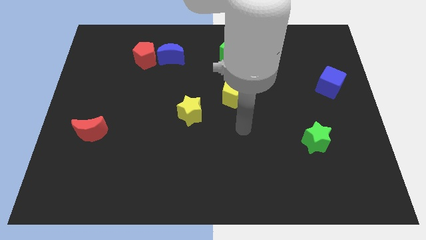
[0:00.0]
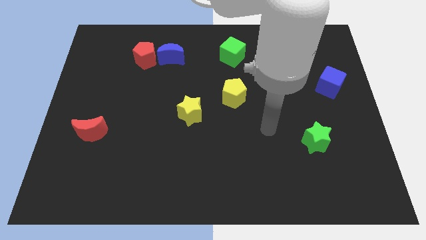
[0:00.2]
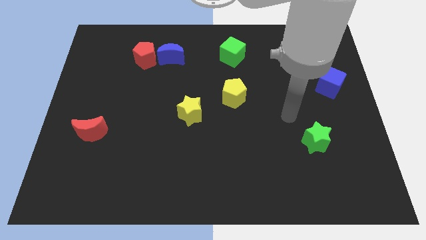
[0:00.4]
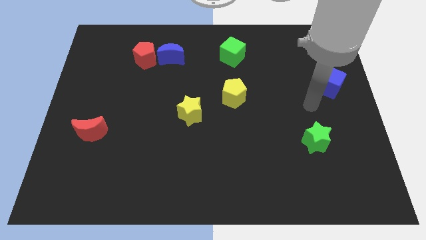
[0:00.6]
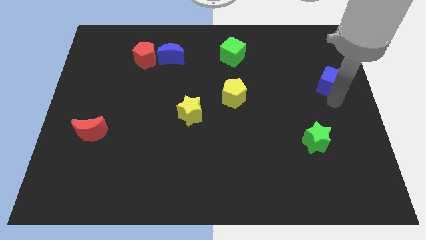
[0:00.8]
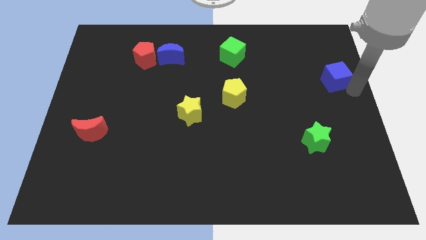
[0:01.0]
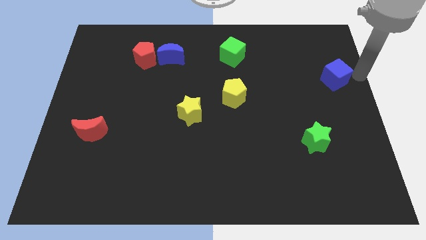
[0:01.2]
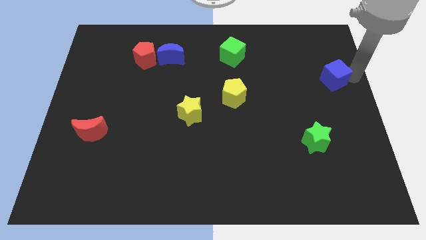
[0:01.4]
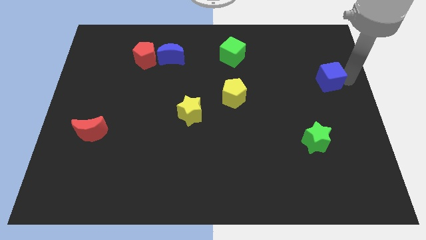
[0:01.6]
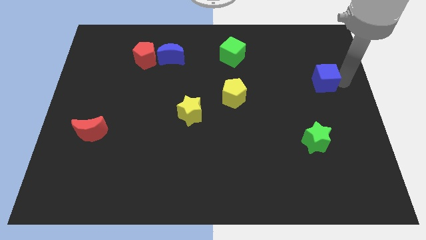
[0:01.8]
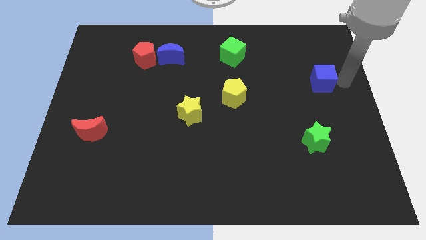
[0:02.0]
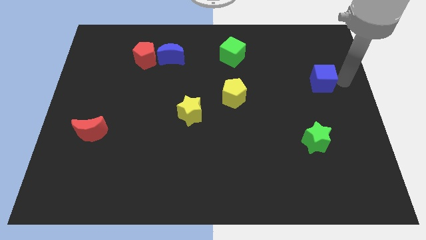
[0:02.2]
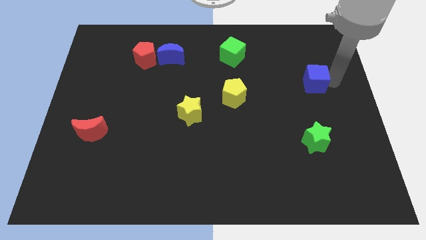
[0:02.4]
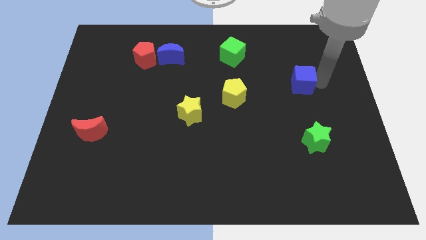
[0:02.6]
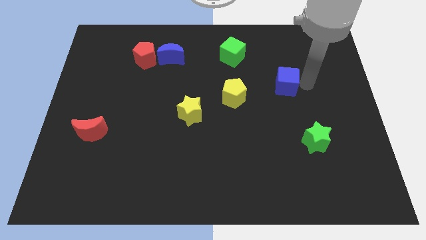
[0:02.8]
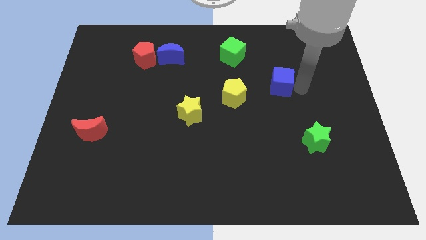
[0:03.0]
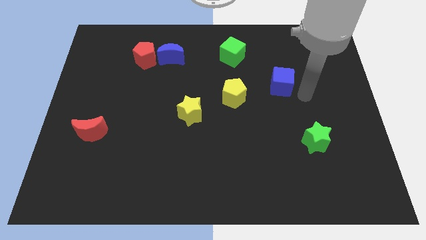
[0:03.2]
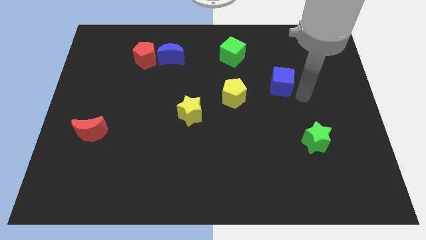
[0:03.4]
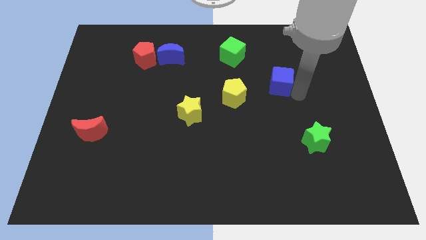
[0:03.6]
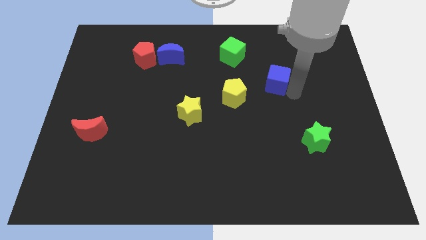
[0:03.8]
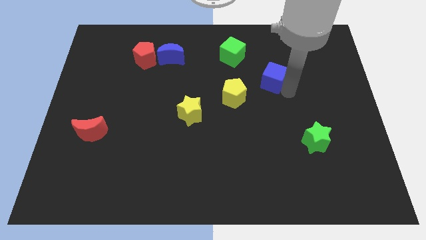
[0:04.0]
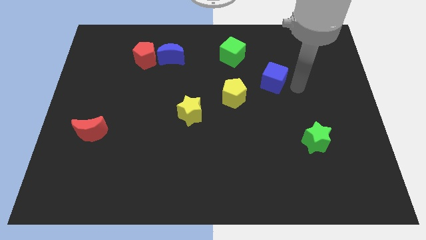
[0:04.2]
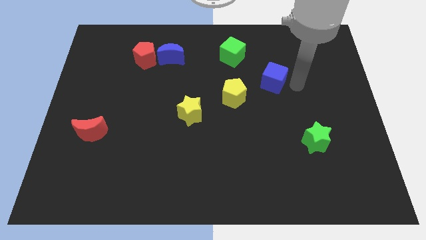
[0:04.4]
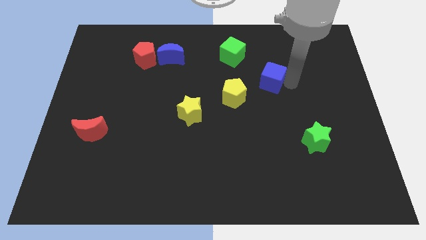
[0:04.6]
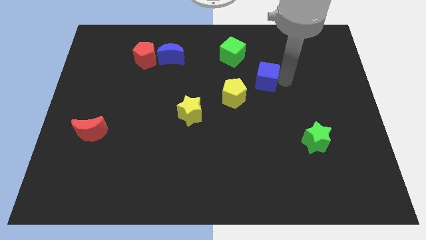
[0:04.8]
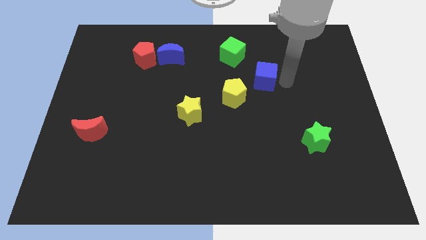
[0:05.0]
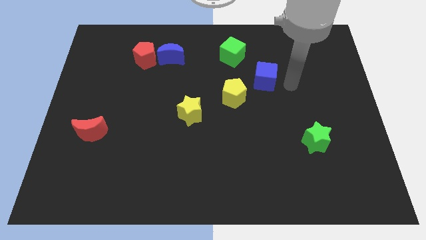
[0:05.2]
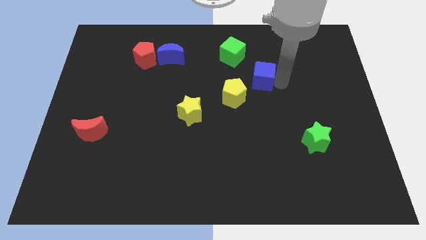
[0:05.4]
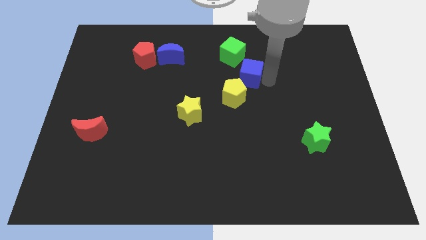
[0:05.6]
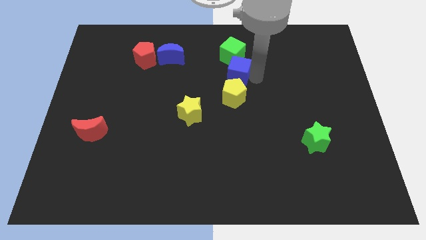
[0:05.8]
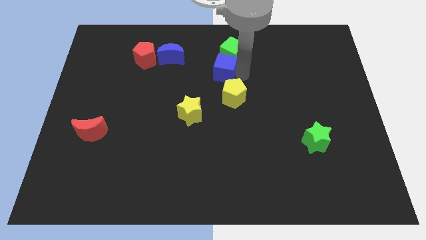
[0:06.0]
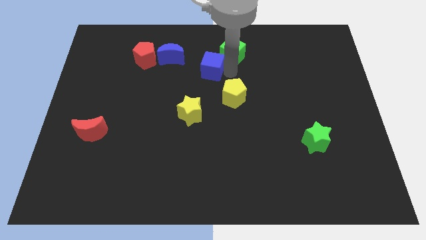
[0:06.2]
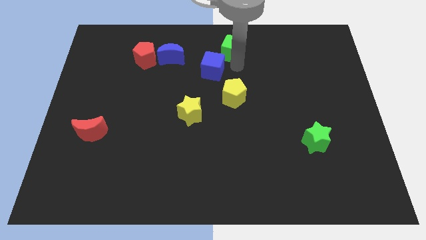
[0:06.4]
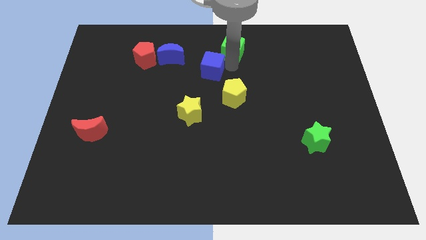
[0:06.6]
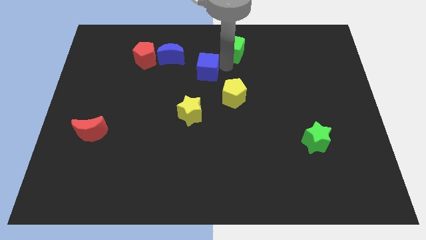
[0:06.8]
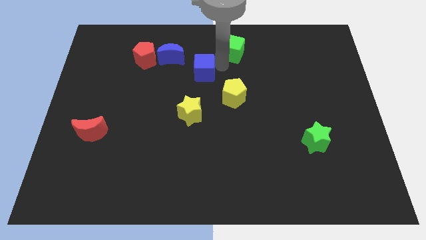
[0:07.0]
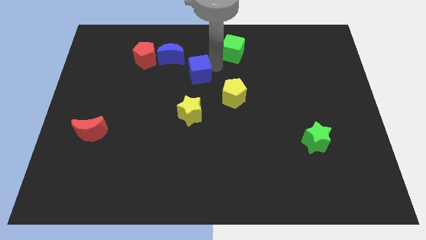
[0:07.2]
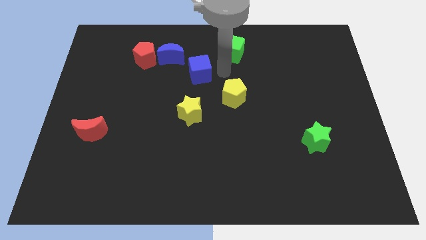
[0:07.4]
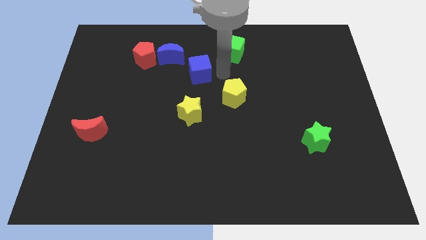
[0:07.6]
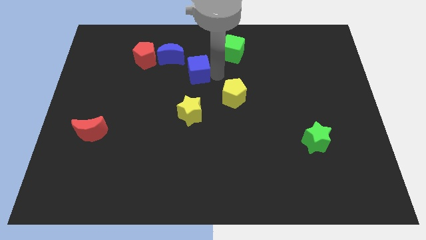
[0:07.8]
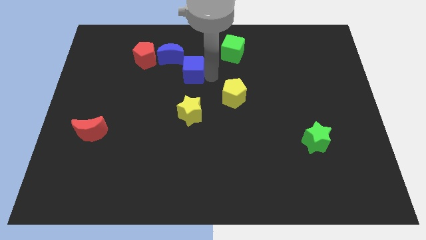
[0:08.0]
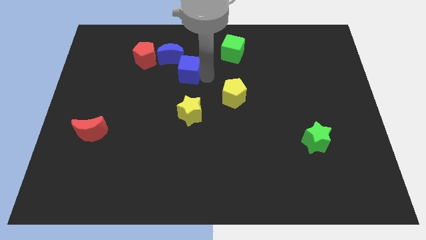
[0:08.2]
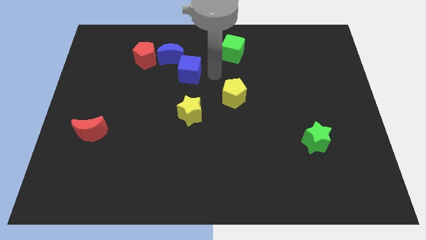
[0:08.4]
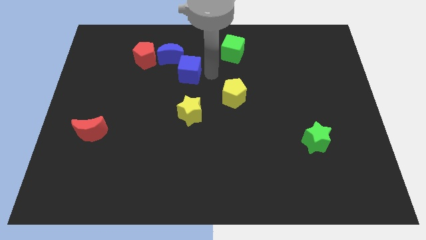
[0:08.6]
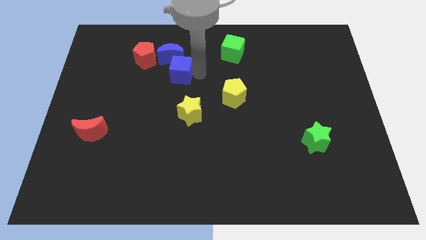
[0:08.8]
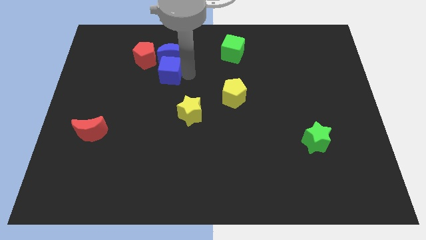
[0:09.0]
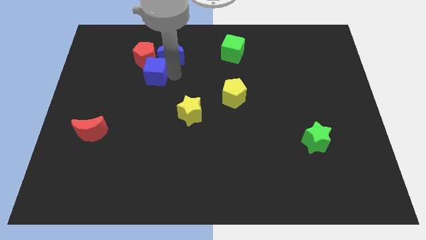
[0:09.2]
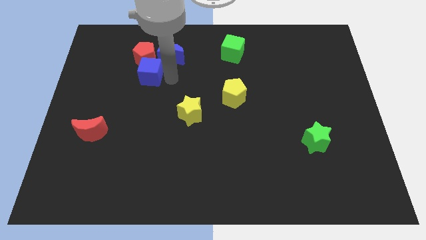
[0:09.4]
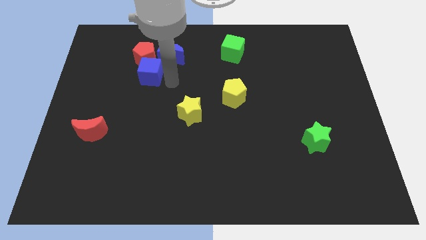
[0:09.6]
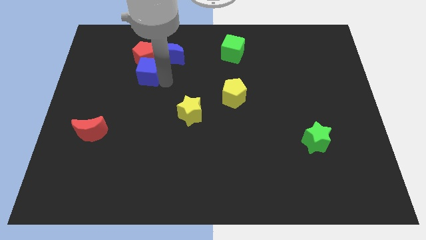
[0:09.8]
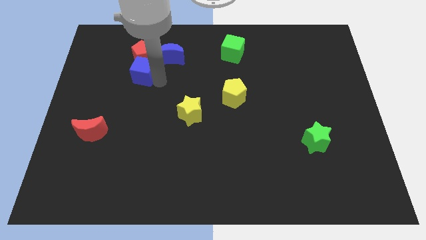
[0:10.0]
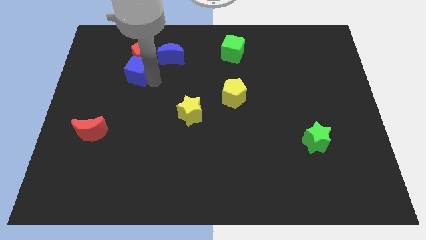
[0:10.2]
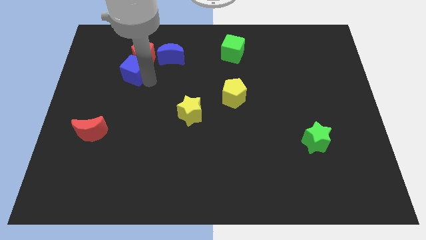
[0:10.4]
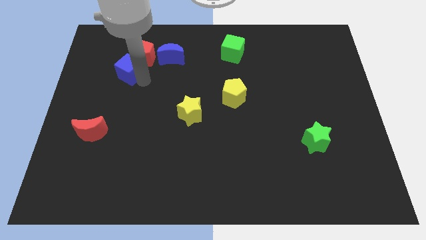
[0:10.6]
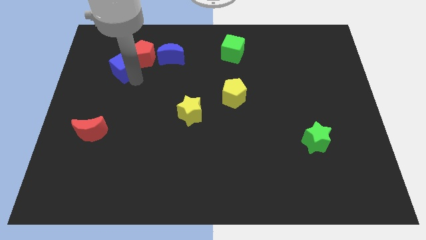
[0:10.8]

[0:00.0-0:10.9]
put the blue cube left of the red pentagon

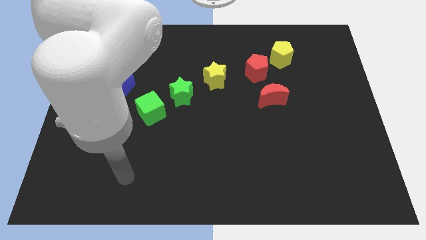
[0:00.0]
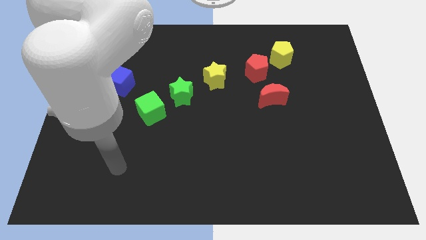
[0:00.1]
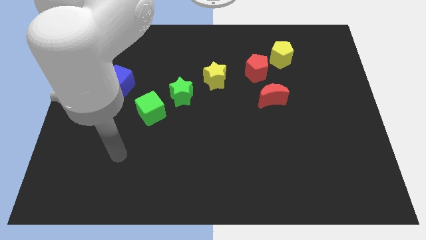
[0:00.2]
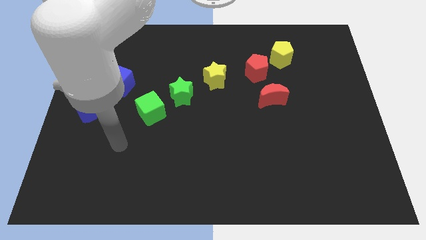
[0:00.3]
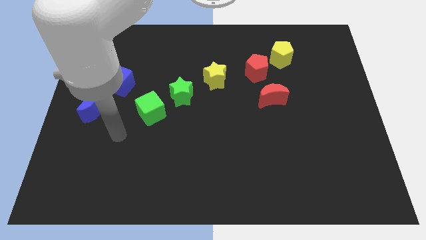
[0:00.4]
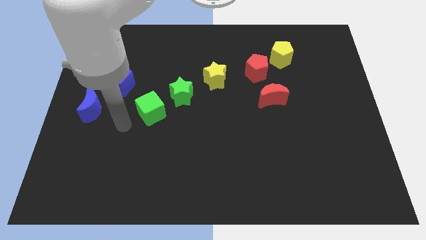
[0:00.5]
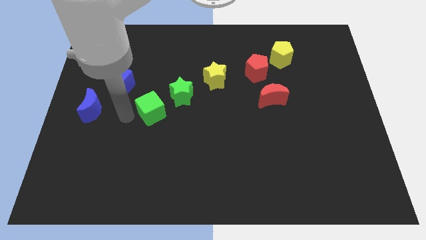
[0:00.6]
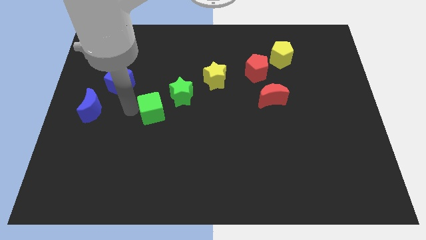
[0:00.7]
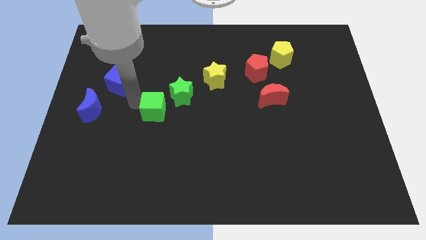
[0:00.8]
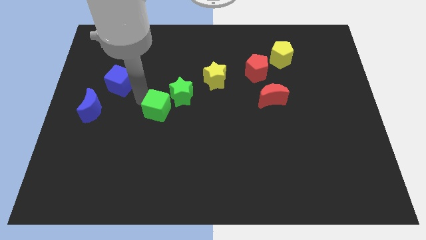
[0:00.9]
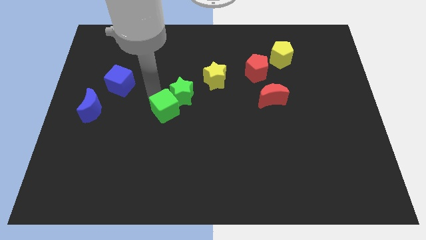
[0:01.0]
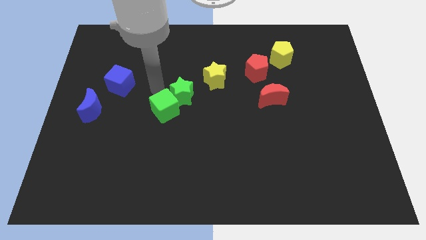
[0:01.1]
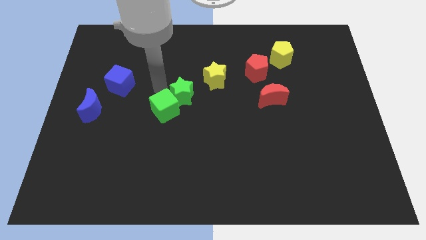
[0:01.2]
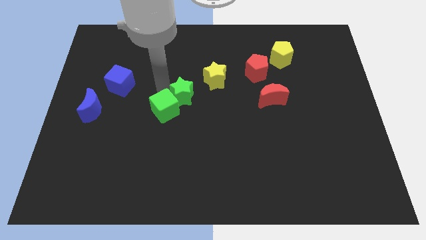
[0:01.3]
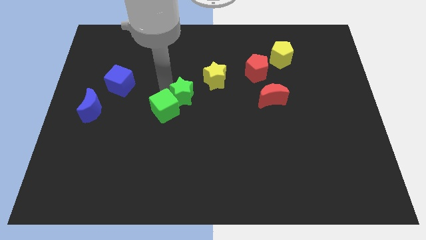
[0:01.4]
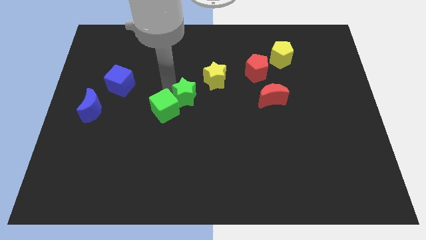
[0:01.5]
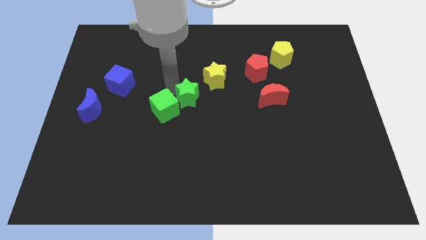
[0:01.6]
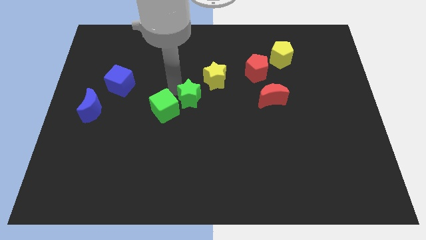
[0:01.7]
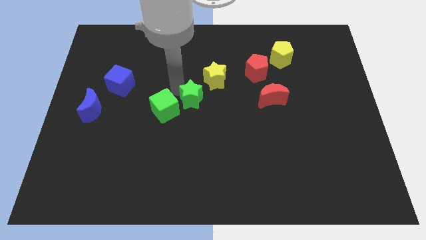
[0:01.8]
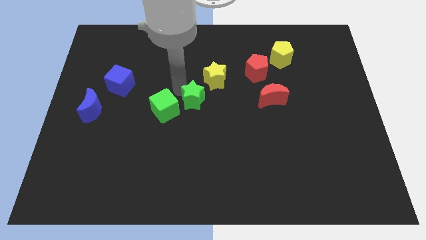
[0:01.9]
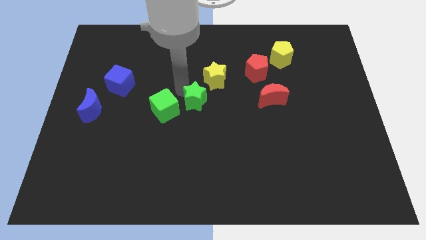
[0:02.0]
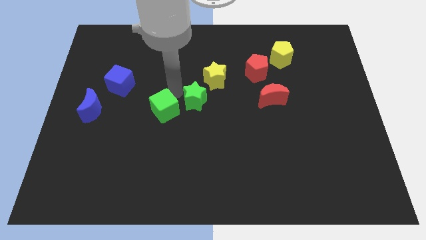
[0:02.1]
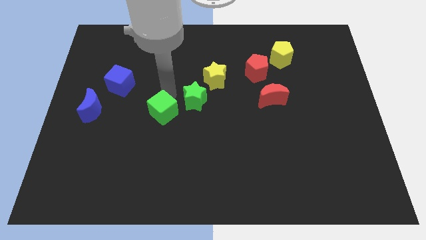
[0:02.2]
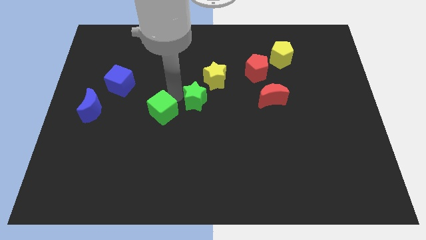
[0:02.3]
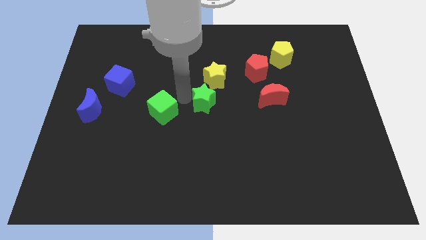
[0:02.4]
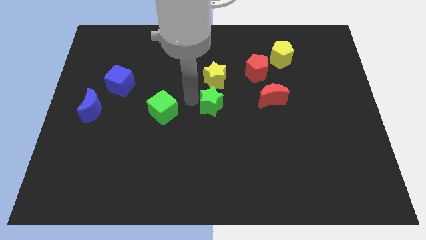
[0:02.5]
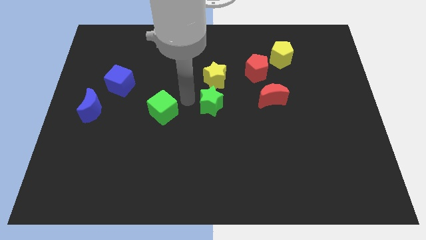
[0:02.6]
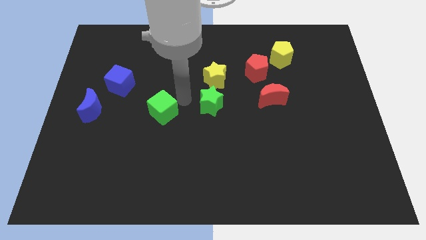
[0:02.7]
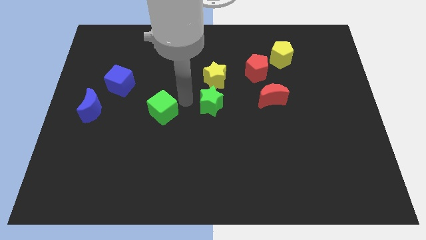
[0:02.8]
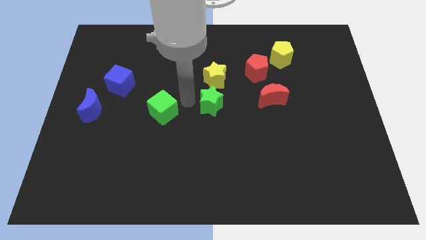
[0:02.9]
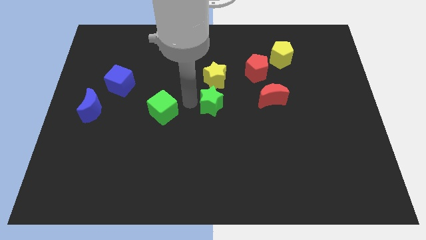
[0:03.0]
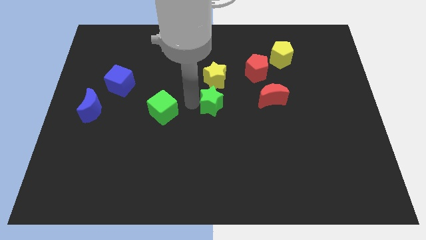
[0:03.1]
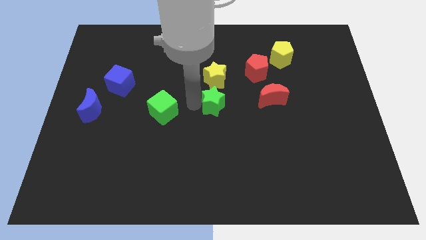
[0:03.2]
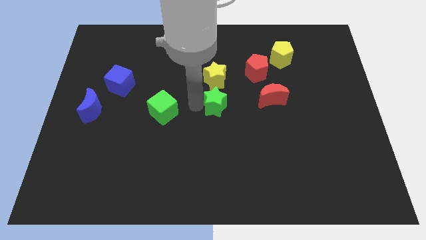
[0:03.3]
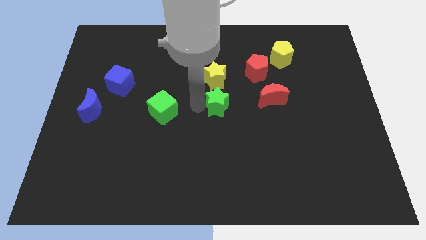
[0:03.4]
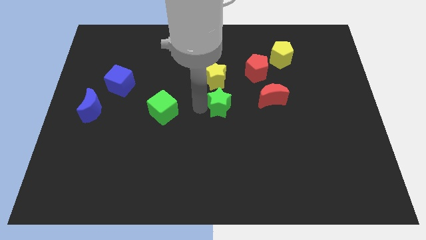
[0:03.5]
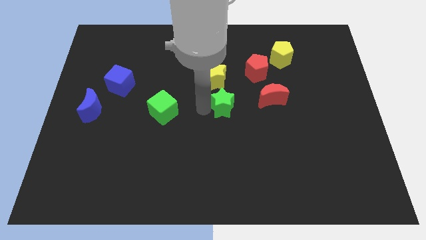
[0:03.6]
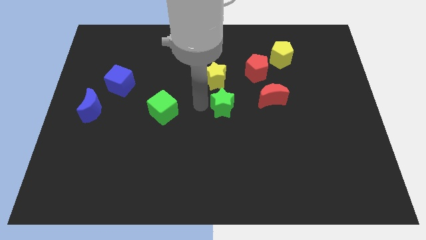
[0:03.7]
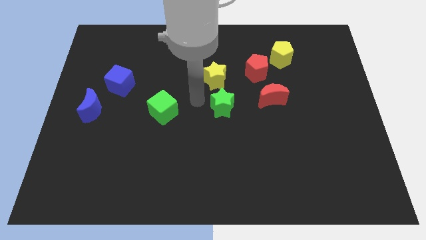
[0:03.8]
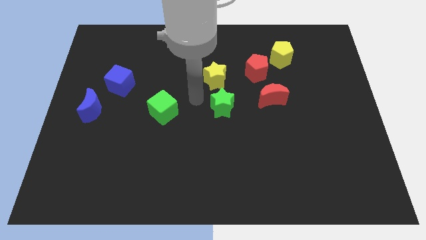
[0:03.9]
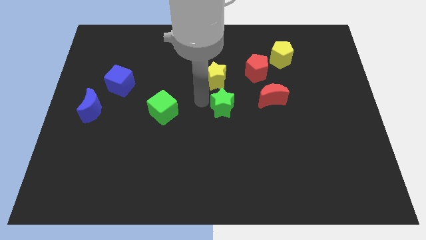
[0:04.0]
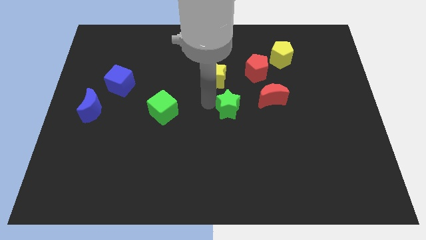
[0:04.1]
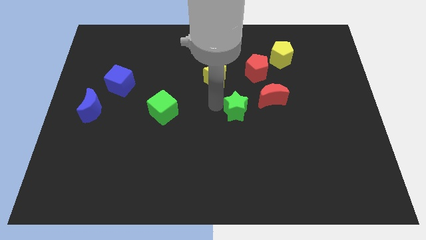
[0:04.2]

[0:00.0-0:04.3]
push the green star to the bottom left side of the red moon
